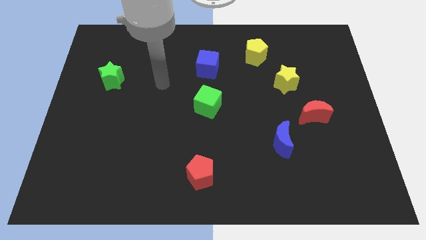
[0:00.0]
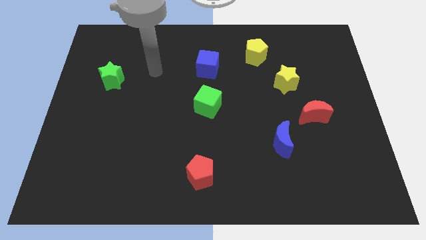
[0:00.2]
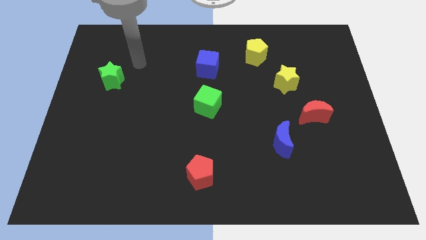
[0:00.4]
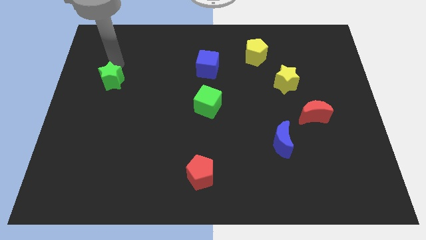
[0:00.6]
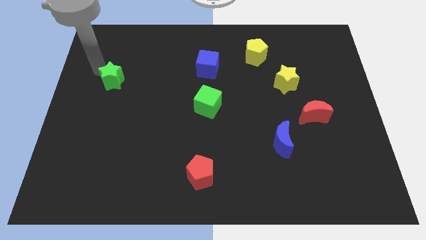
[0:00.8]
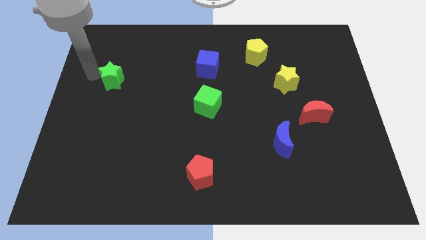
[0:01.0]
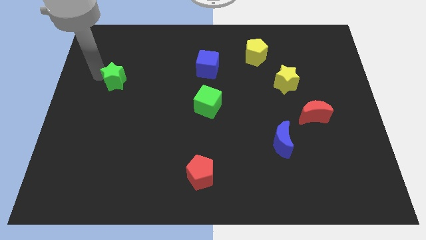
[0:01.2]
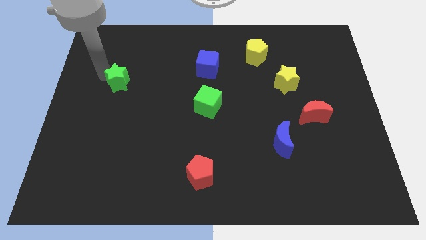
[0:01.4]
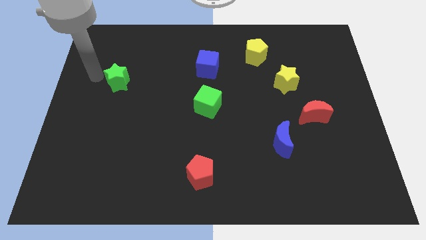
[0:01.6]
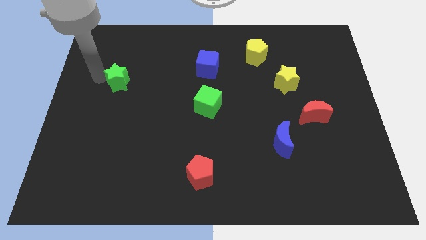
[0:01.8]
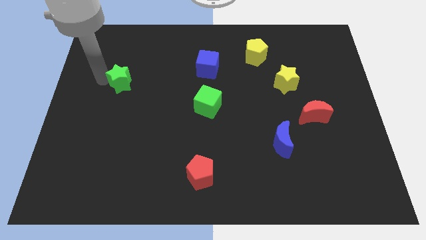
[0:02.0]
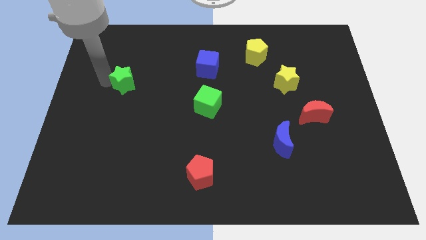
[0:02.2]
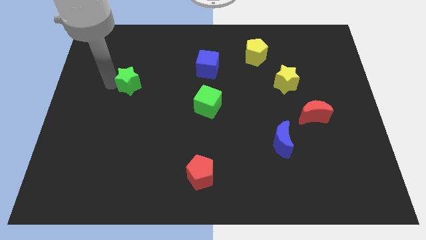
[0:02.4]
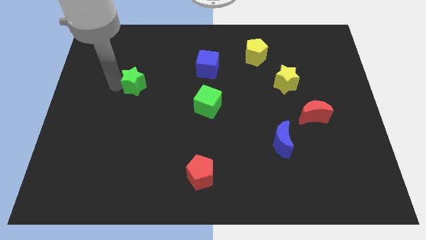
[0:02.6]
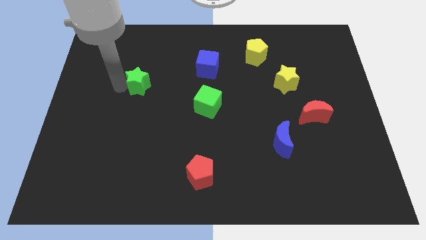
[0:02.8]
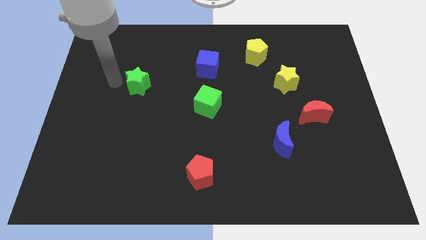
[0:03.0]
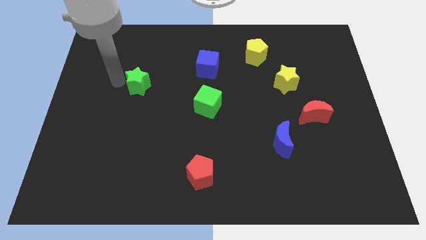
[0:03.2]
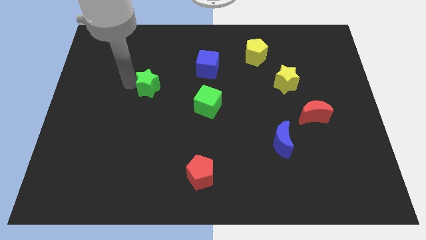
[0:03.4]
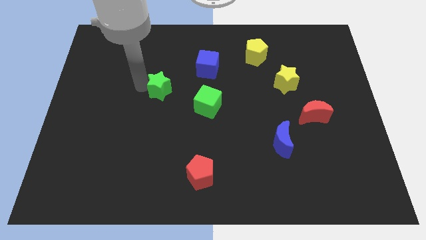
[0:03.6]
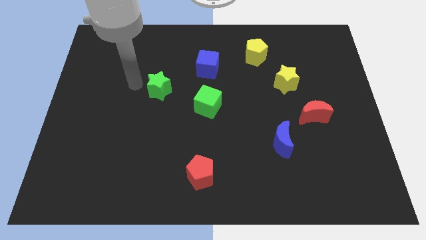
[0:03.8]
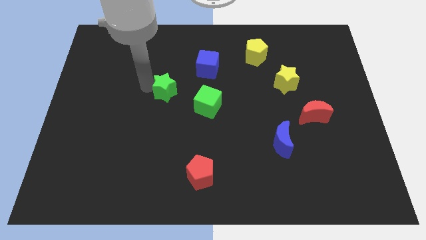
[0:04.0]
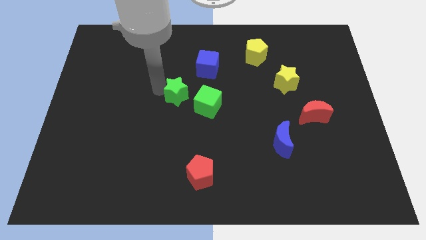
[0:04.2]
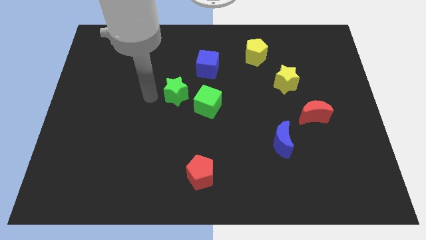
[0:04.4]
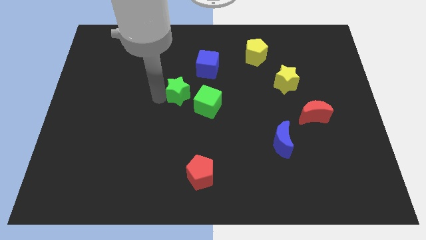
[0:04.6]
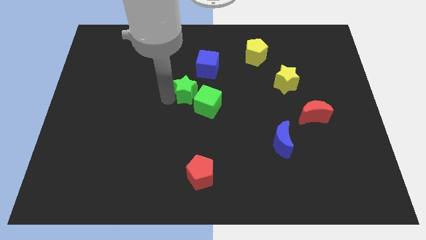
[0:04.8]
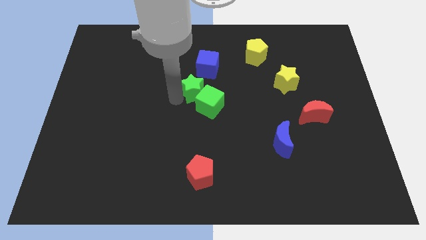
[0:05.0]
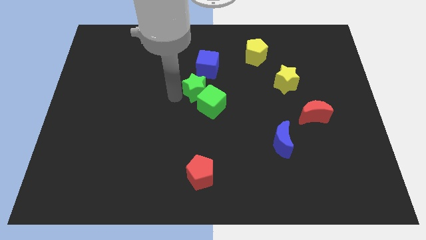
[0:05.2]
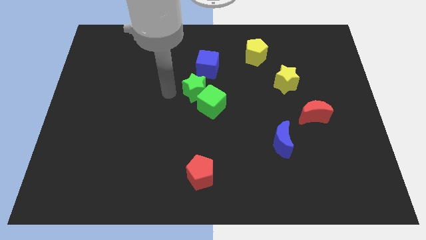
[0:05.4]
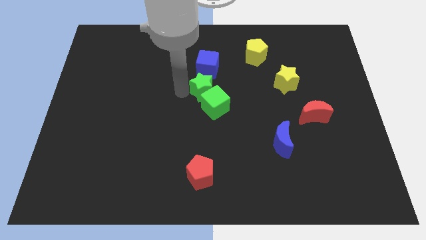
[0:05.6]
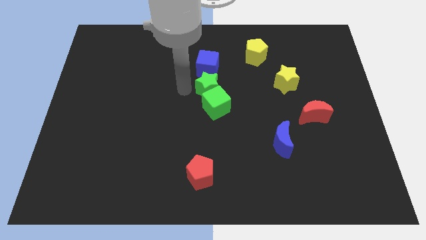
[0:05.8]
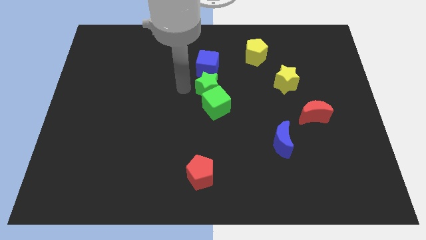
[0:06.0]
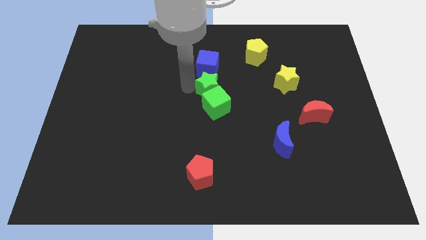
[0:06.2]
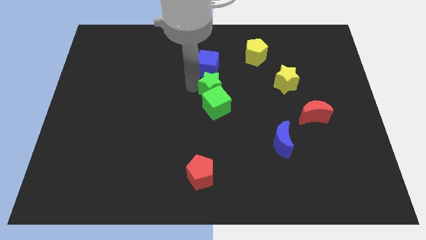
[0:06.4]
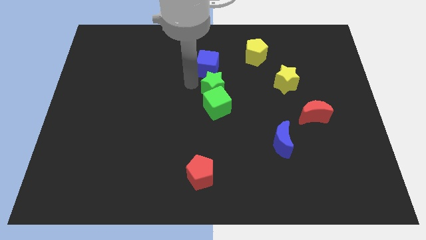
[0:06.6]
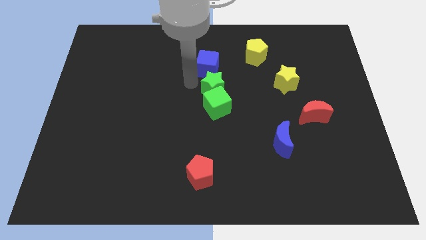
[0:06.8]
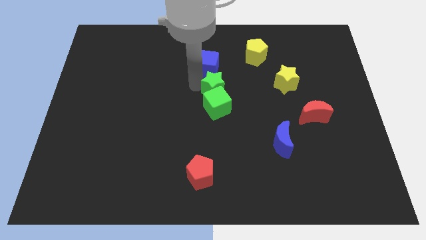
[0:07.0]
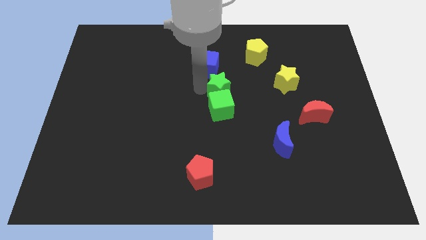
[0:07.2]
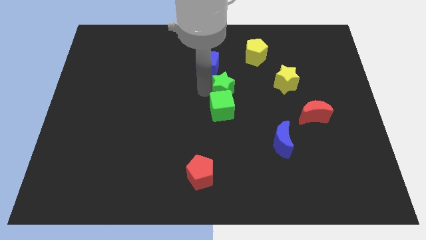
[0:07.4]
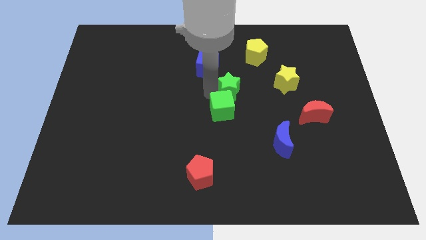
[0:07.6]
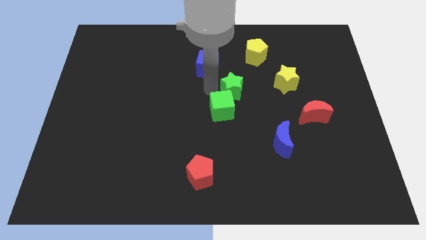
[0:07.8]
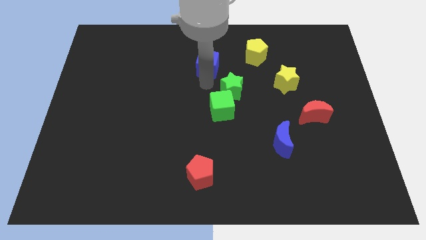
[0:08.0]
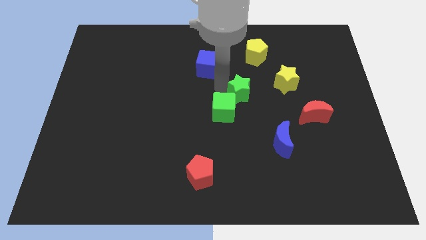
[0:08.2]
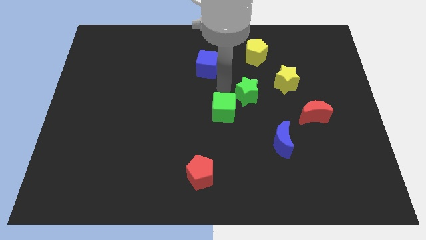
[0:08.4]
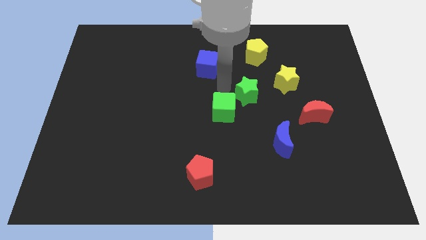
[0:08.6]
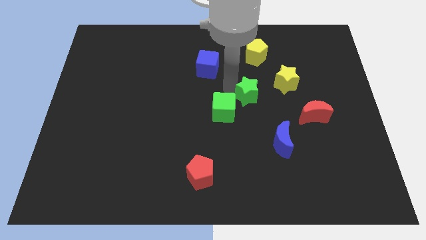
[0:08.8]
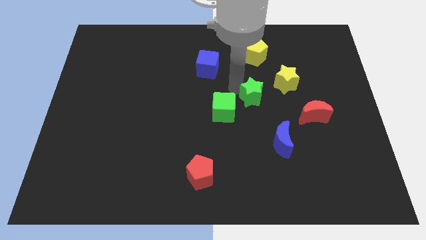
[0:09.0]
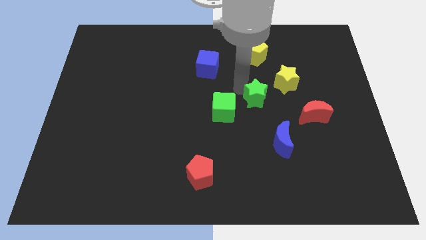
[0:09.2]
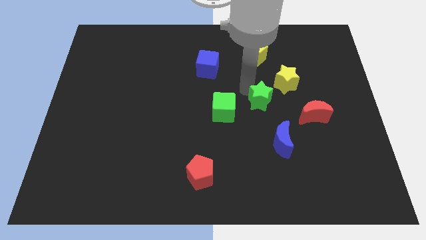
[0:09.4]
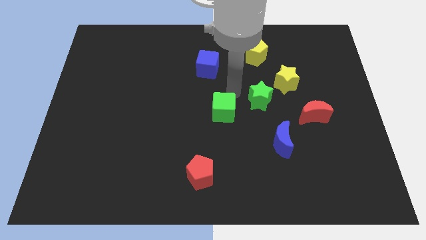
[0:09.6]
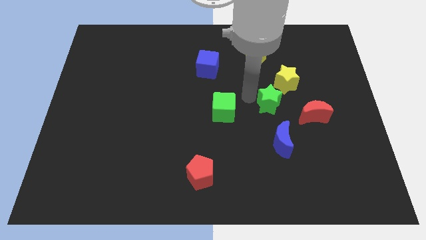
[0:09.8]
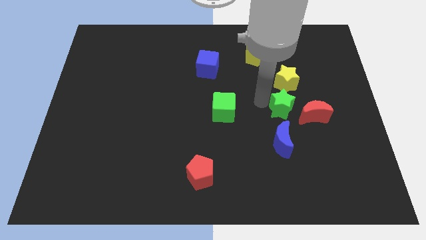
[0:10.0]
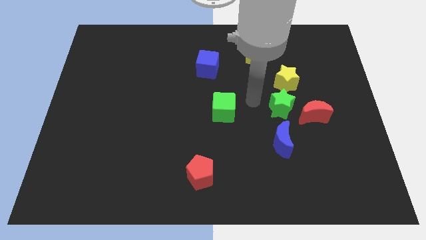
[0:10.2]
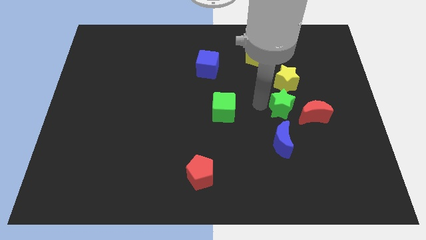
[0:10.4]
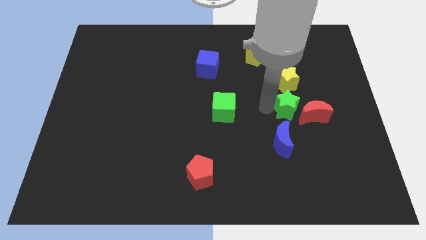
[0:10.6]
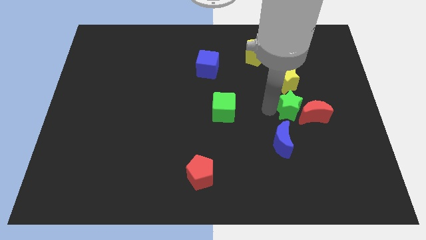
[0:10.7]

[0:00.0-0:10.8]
put the green star close to the red moon

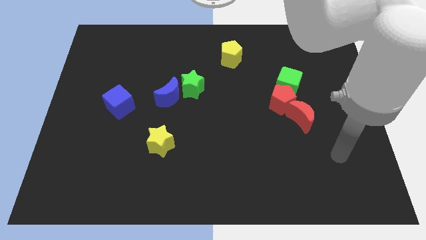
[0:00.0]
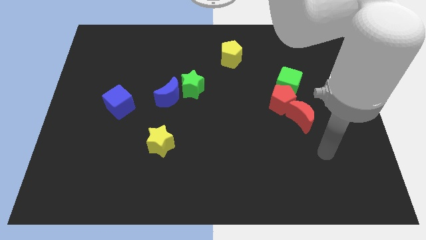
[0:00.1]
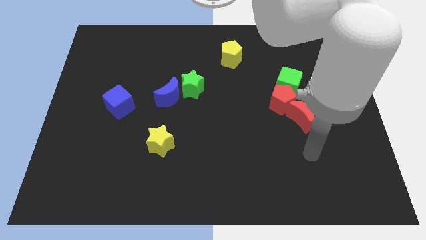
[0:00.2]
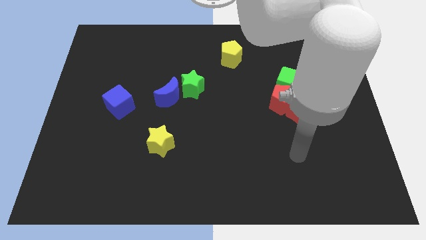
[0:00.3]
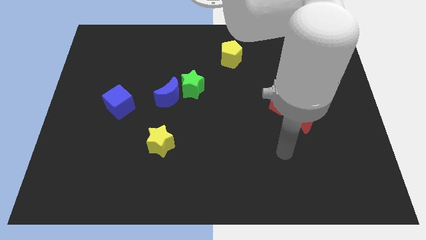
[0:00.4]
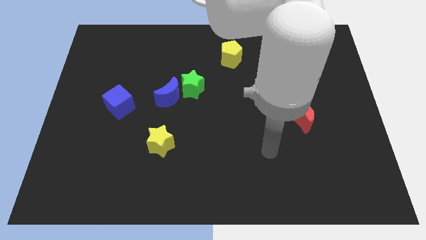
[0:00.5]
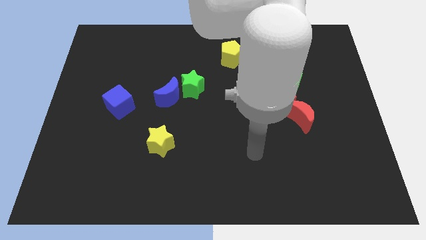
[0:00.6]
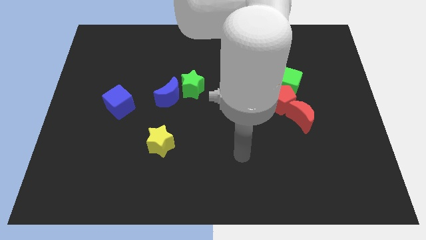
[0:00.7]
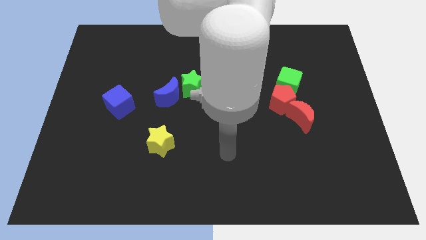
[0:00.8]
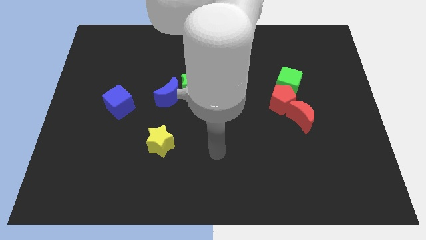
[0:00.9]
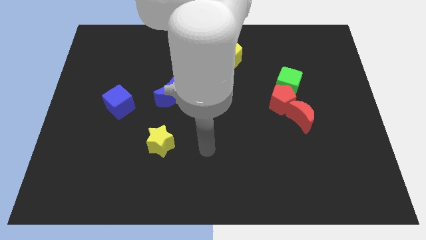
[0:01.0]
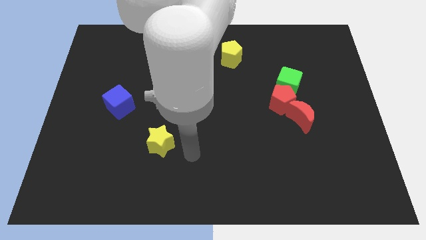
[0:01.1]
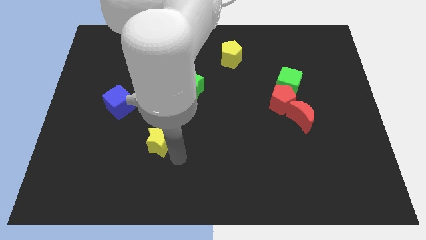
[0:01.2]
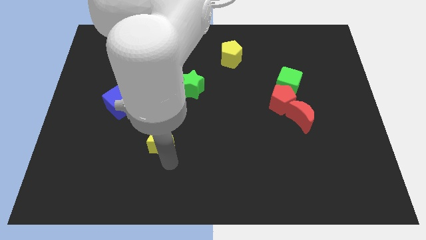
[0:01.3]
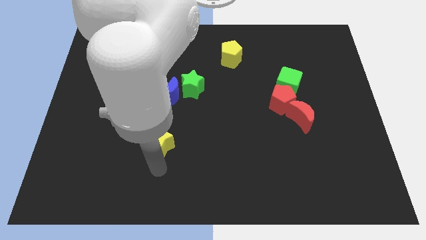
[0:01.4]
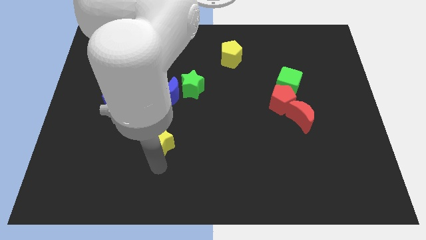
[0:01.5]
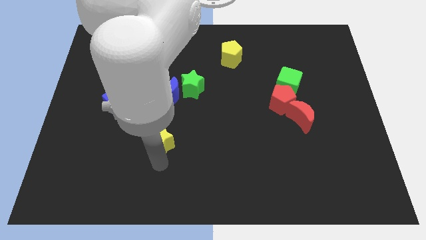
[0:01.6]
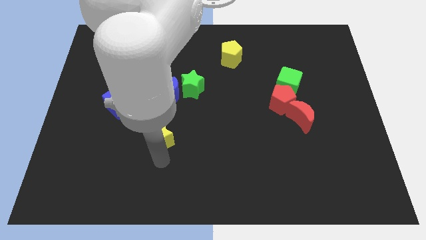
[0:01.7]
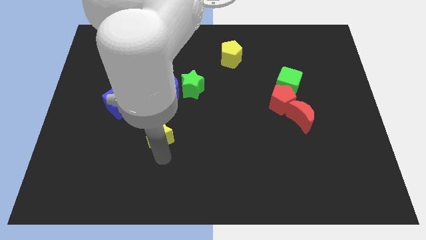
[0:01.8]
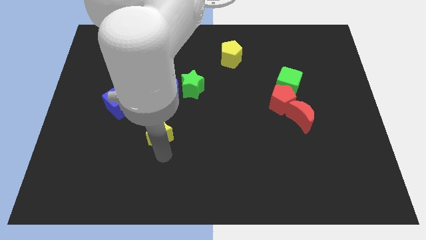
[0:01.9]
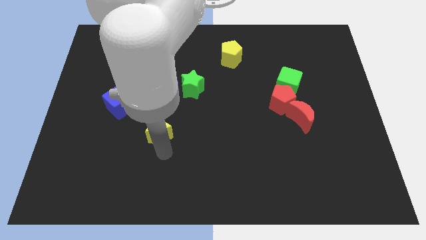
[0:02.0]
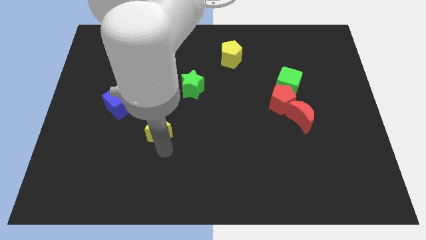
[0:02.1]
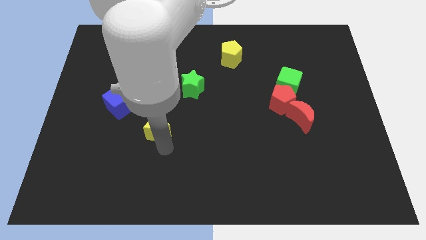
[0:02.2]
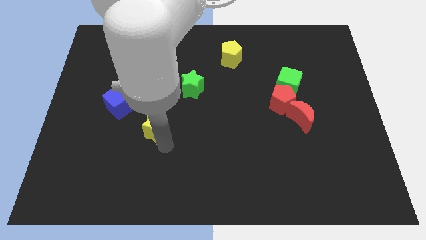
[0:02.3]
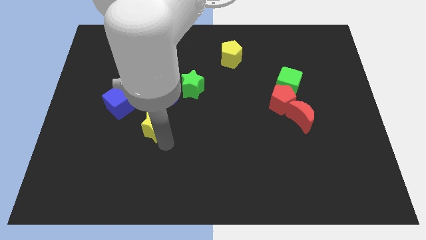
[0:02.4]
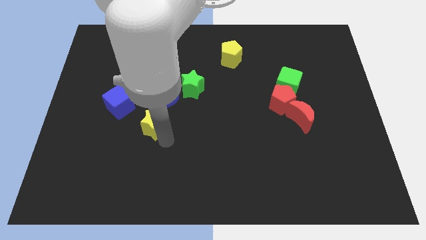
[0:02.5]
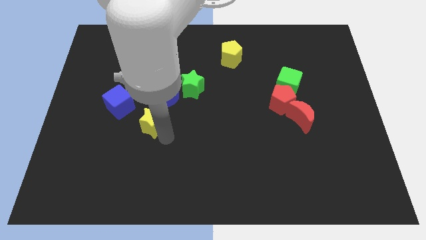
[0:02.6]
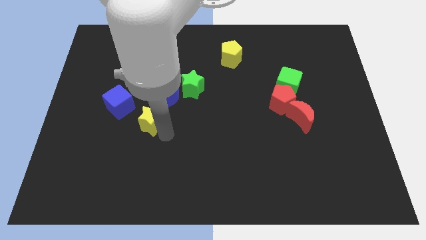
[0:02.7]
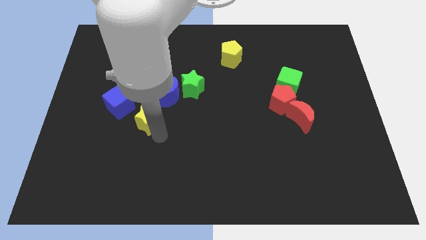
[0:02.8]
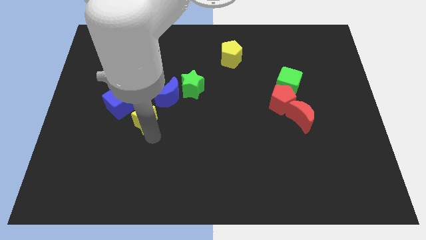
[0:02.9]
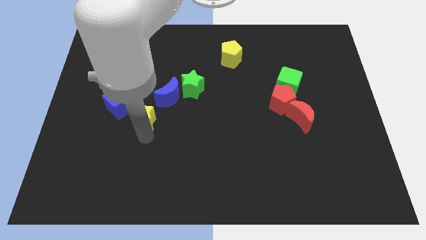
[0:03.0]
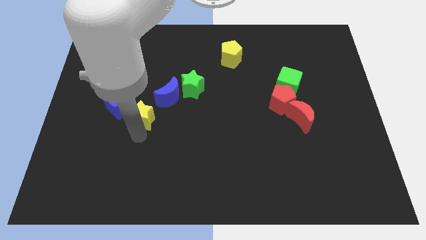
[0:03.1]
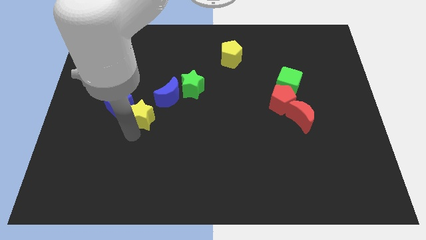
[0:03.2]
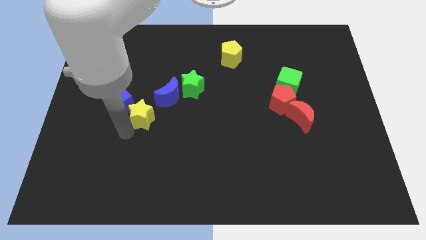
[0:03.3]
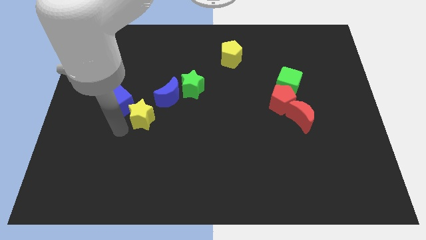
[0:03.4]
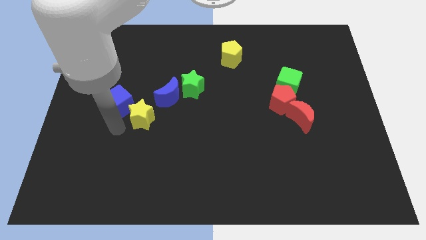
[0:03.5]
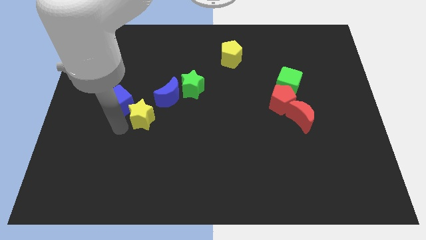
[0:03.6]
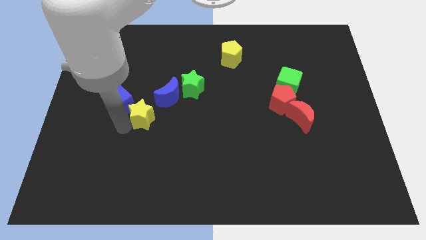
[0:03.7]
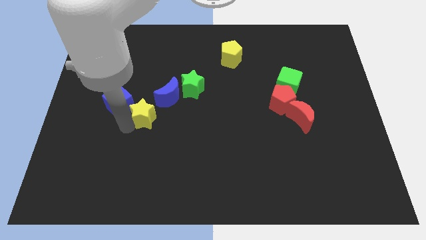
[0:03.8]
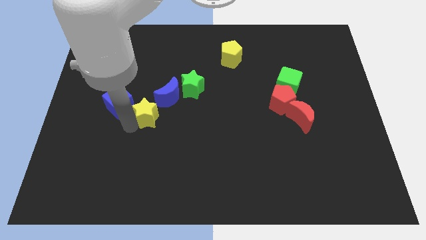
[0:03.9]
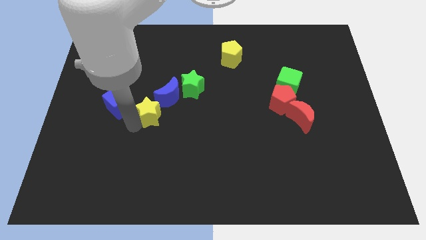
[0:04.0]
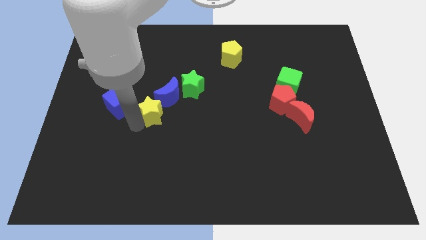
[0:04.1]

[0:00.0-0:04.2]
move the yellow star towards the blue moon
